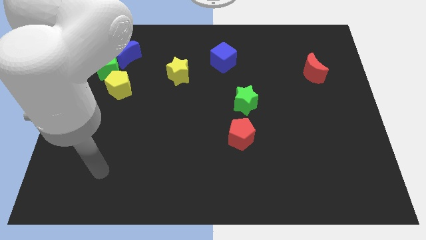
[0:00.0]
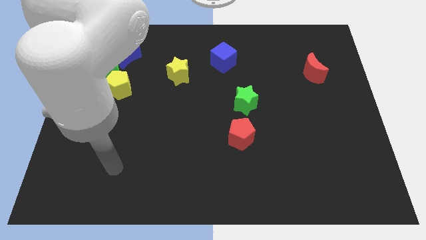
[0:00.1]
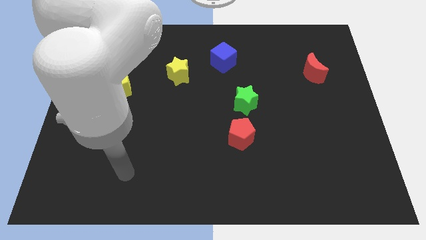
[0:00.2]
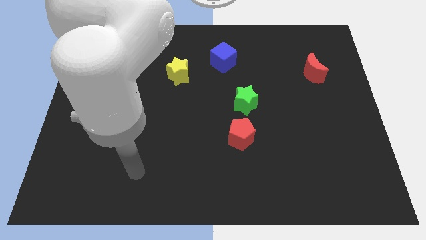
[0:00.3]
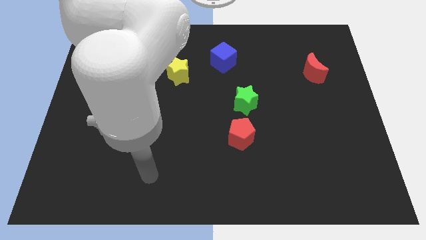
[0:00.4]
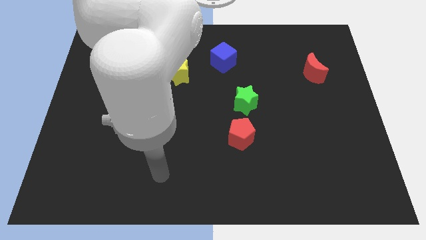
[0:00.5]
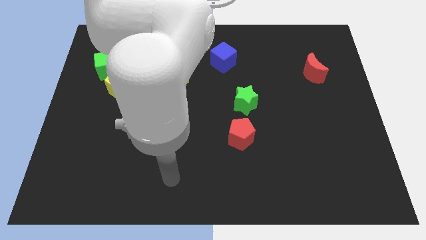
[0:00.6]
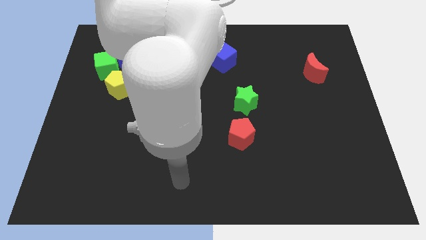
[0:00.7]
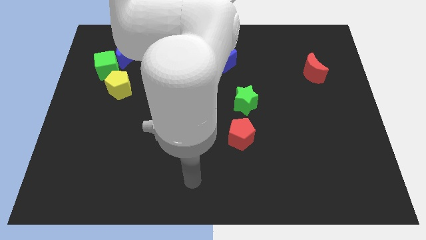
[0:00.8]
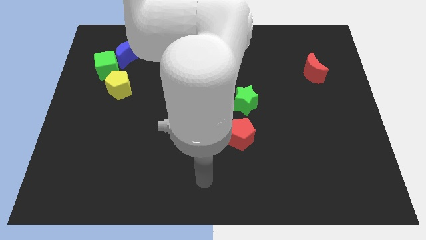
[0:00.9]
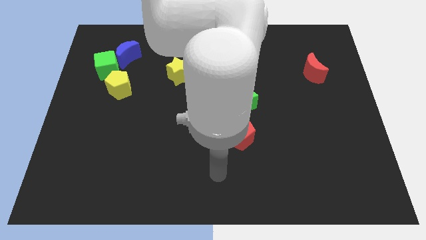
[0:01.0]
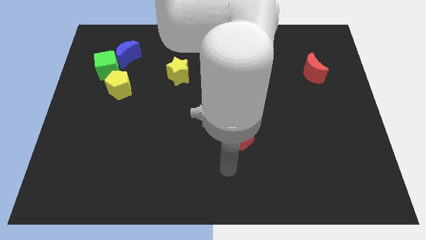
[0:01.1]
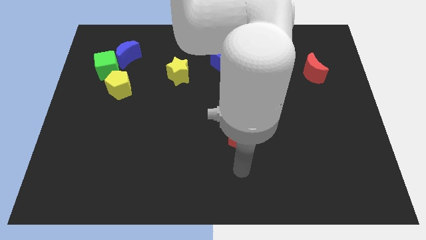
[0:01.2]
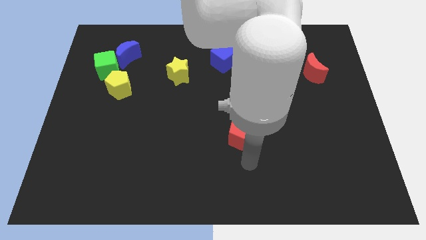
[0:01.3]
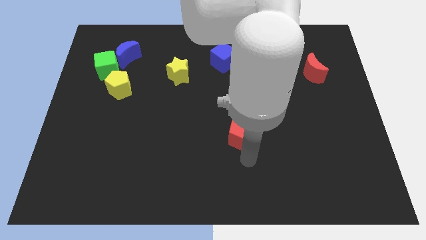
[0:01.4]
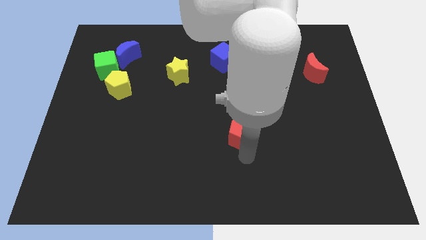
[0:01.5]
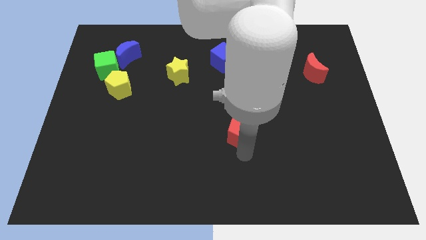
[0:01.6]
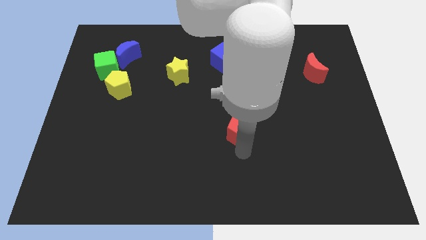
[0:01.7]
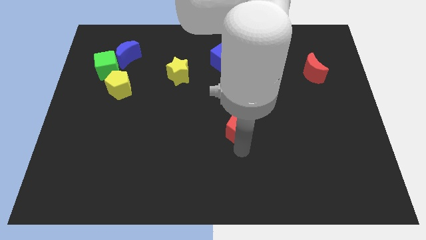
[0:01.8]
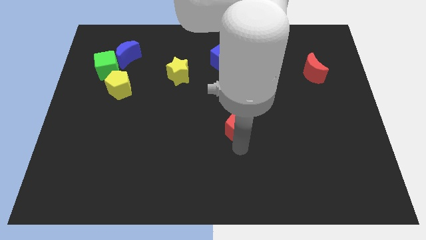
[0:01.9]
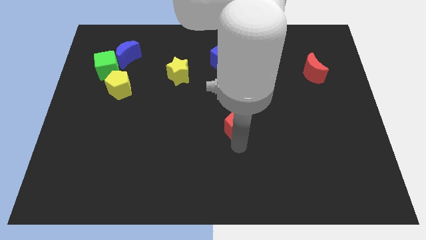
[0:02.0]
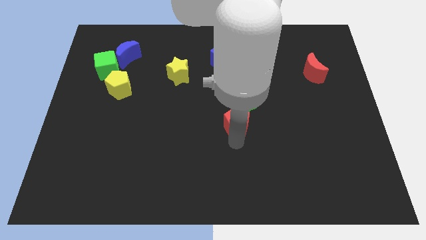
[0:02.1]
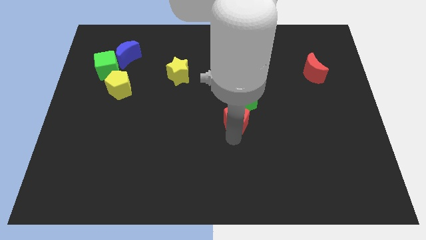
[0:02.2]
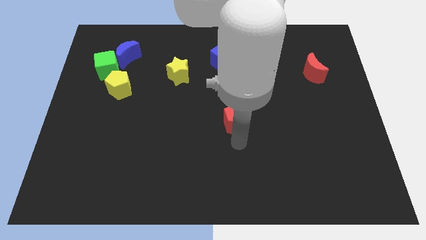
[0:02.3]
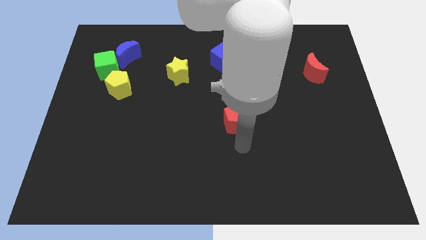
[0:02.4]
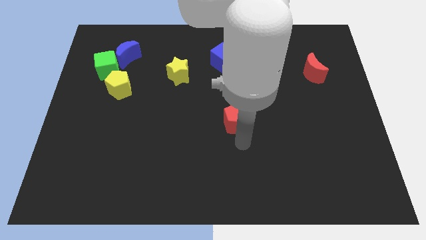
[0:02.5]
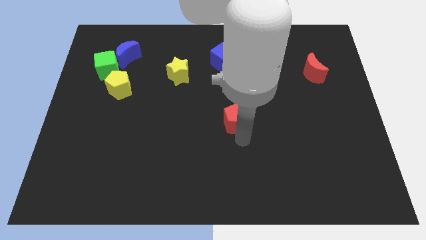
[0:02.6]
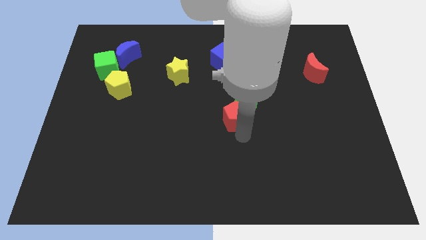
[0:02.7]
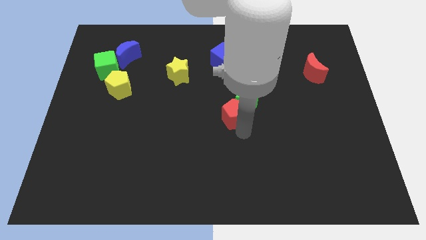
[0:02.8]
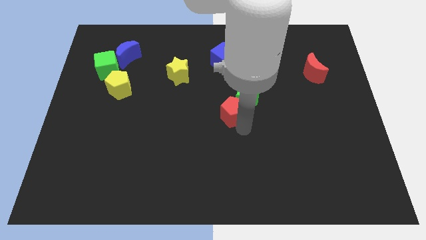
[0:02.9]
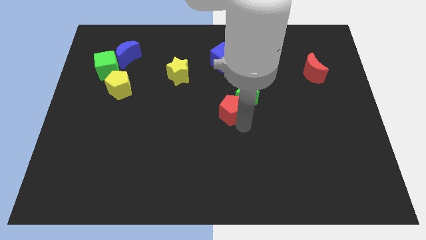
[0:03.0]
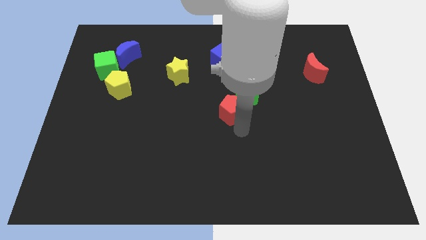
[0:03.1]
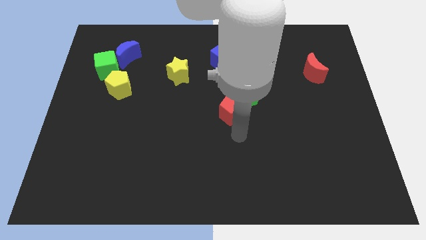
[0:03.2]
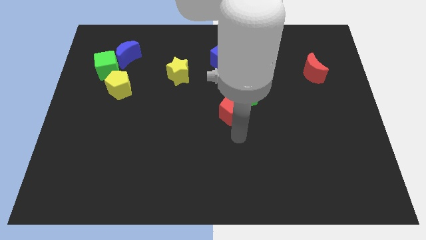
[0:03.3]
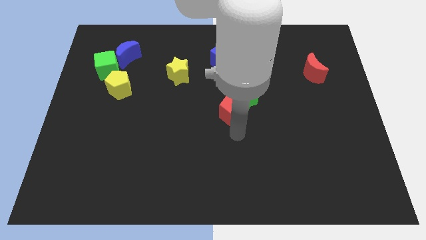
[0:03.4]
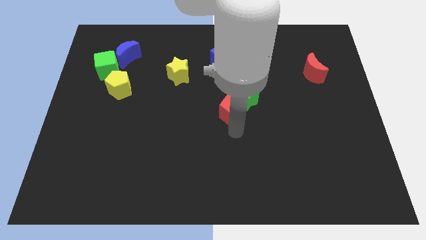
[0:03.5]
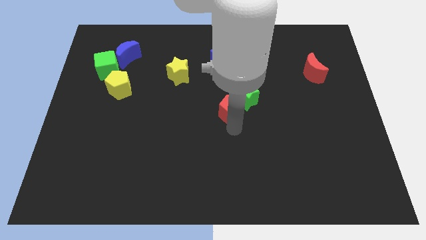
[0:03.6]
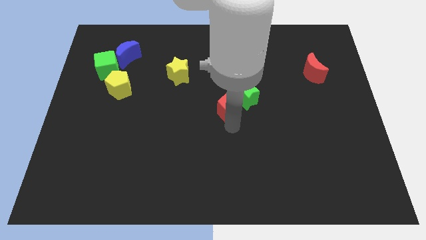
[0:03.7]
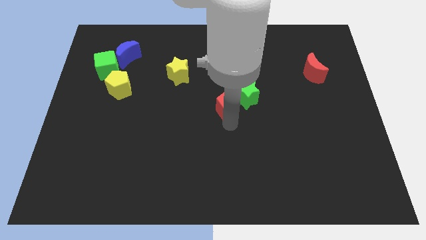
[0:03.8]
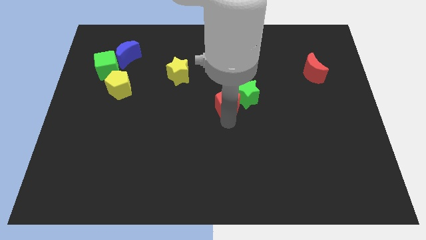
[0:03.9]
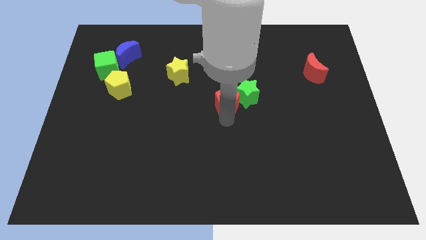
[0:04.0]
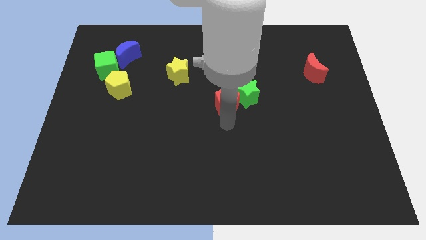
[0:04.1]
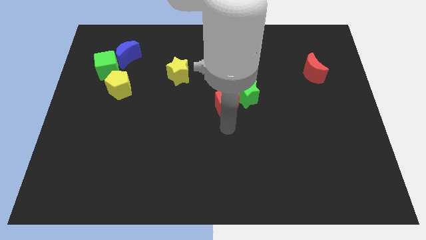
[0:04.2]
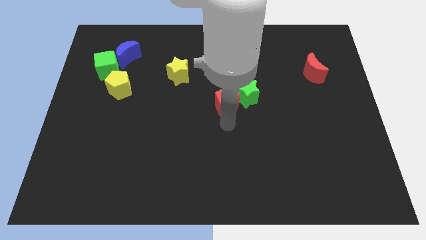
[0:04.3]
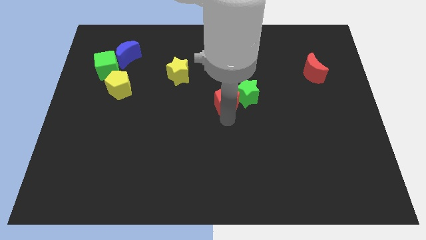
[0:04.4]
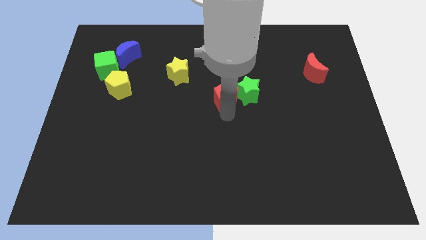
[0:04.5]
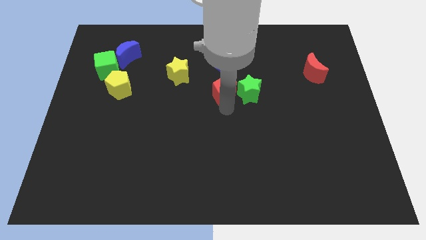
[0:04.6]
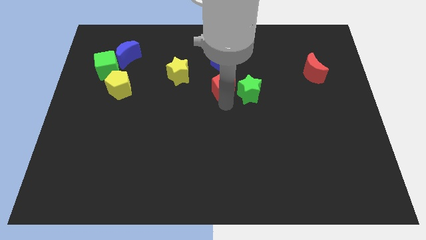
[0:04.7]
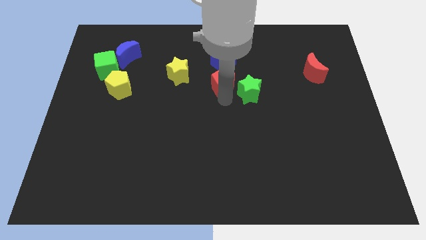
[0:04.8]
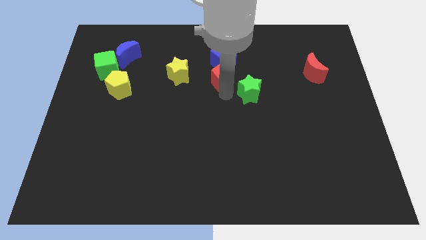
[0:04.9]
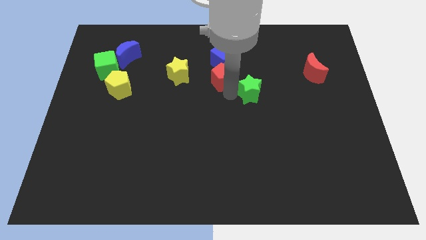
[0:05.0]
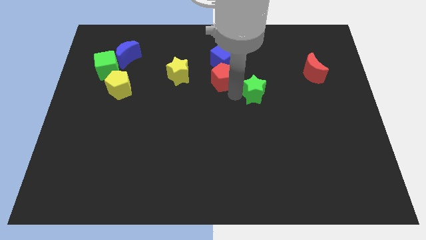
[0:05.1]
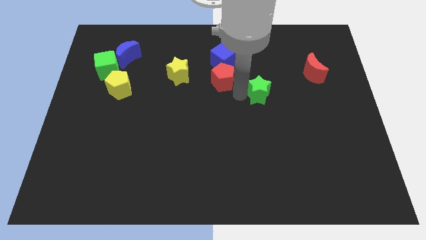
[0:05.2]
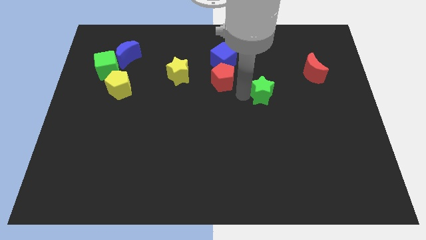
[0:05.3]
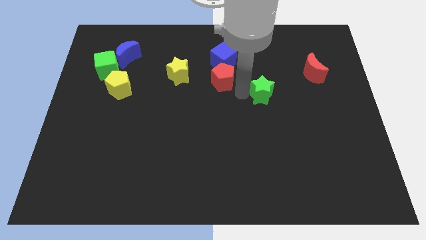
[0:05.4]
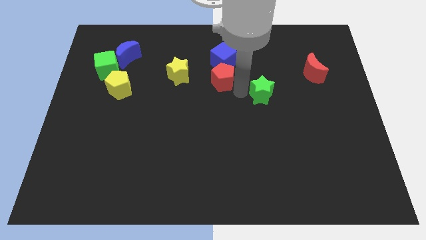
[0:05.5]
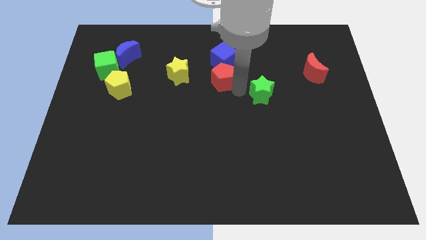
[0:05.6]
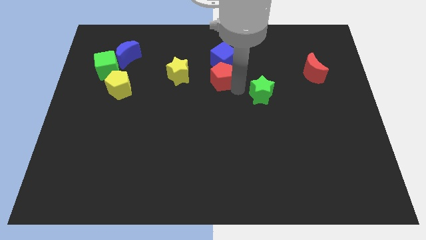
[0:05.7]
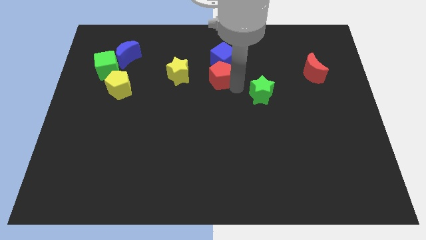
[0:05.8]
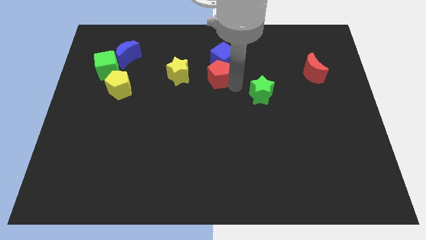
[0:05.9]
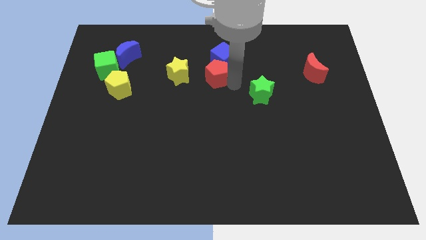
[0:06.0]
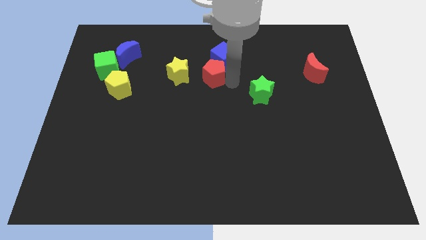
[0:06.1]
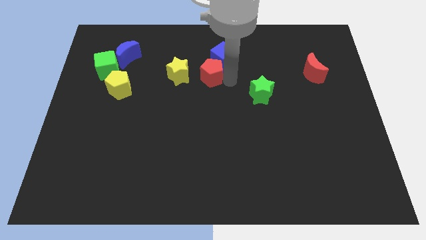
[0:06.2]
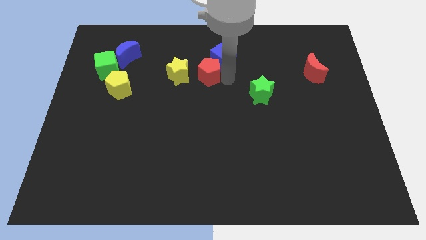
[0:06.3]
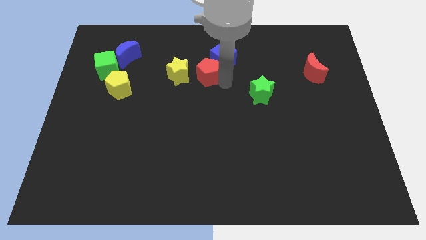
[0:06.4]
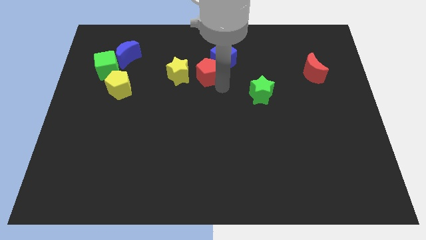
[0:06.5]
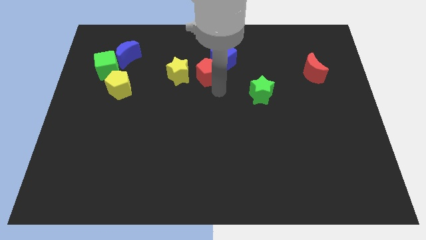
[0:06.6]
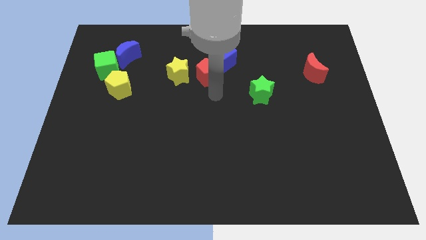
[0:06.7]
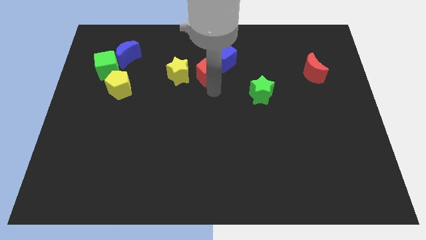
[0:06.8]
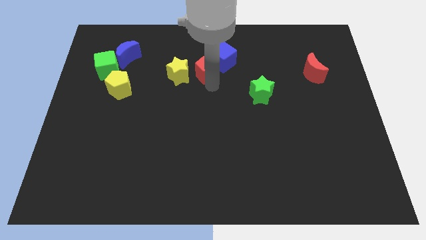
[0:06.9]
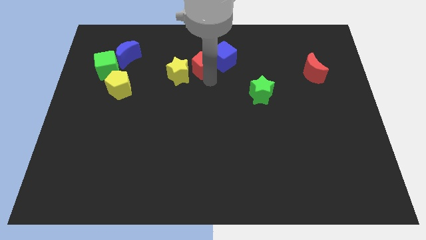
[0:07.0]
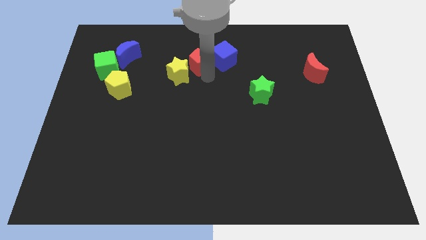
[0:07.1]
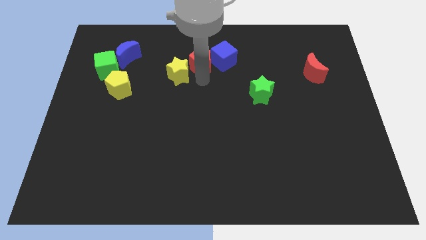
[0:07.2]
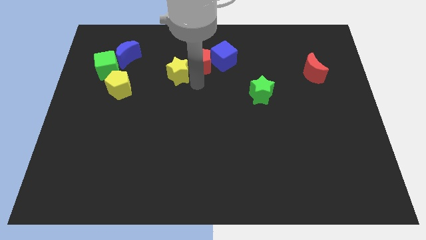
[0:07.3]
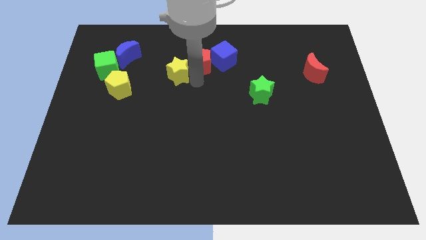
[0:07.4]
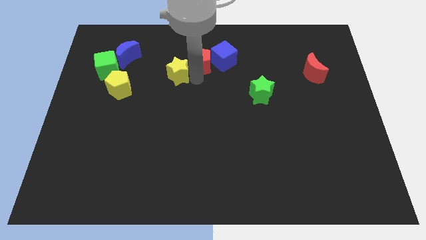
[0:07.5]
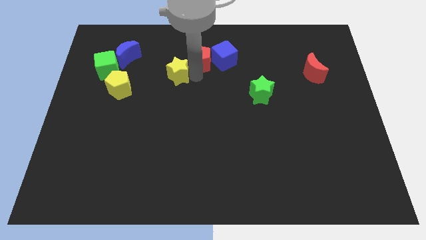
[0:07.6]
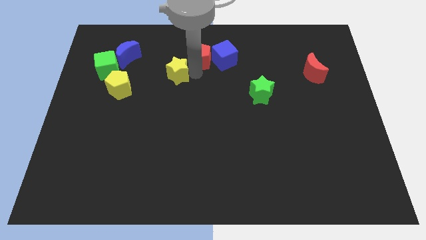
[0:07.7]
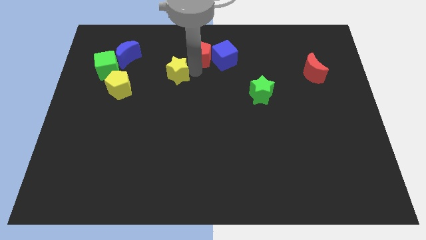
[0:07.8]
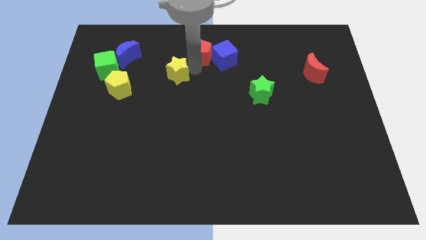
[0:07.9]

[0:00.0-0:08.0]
slide the red pentagon to the top side
